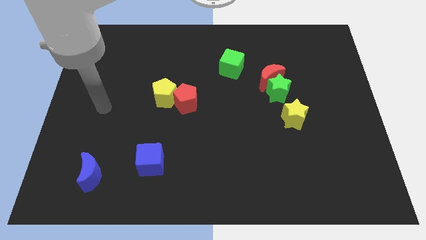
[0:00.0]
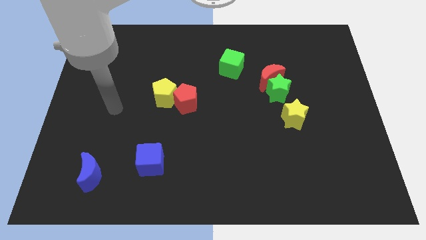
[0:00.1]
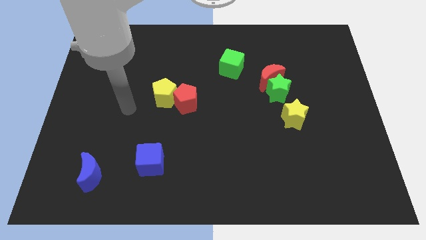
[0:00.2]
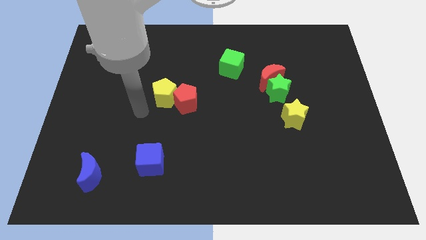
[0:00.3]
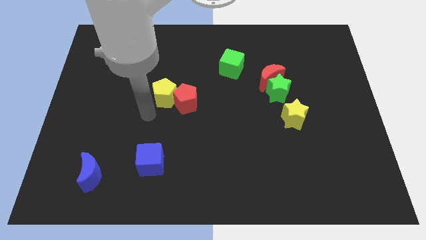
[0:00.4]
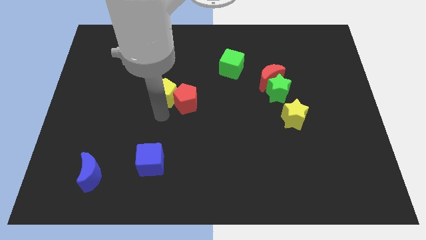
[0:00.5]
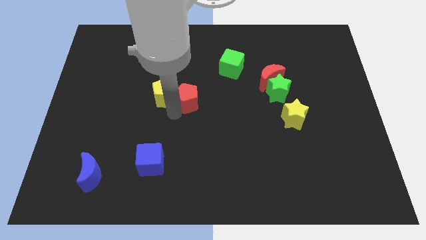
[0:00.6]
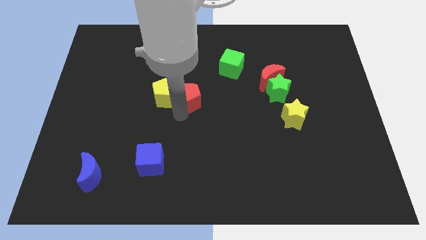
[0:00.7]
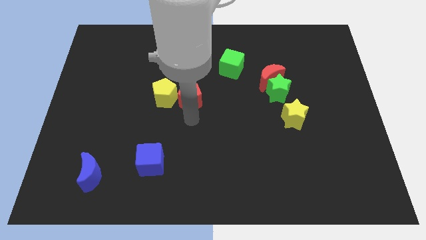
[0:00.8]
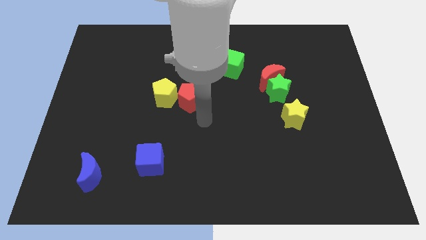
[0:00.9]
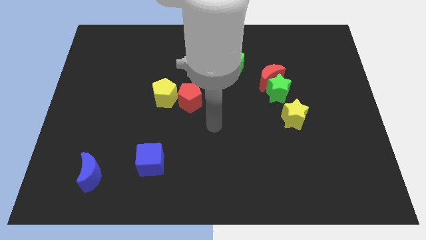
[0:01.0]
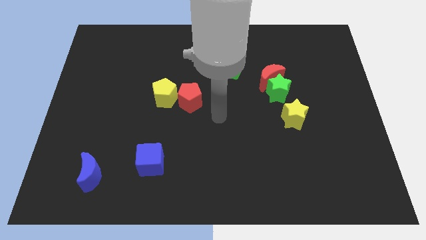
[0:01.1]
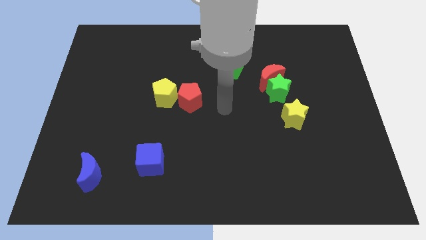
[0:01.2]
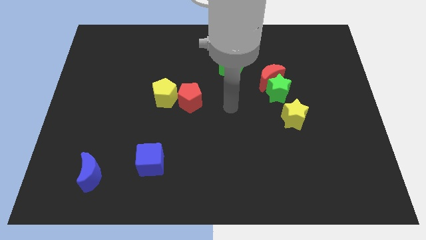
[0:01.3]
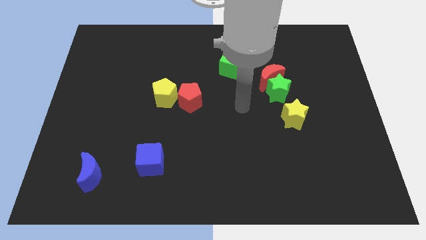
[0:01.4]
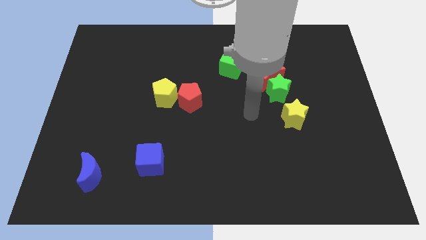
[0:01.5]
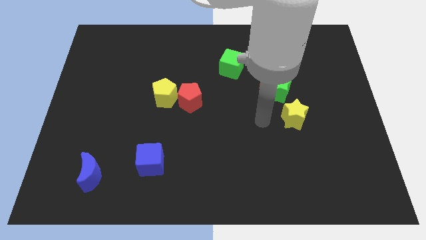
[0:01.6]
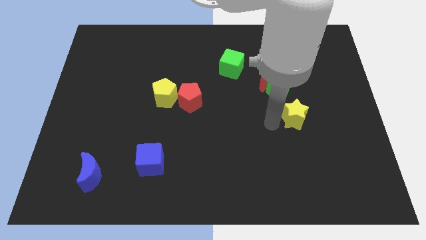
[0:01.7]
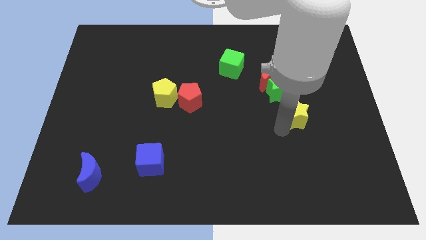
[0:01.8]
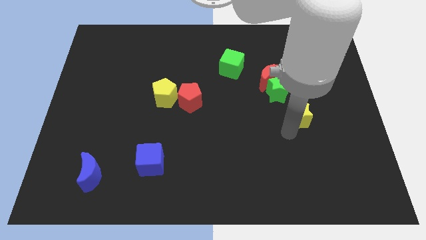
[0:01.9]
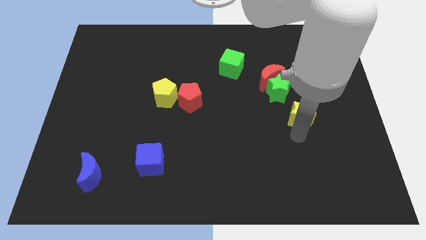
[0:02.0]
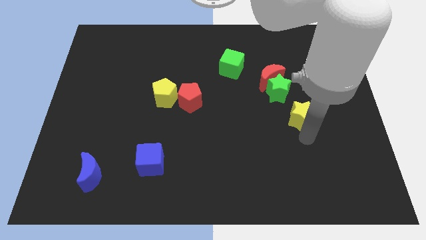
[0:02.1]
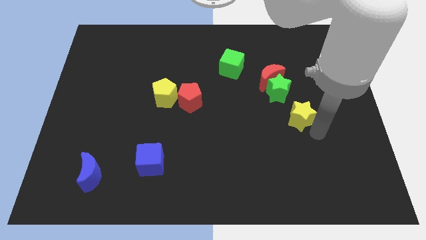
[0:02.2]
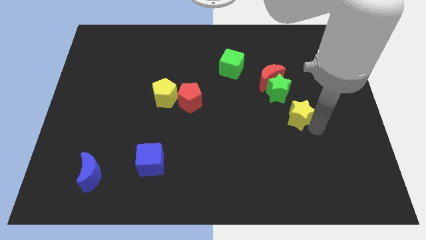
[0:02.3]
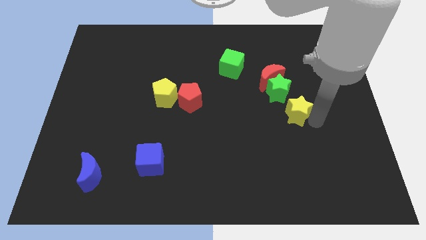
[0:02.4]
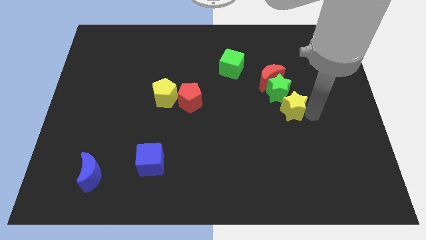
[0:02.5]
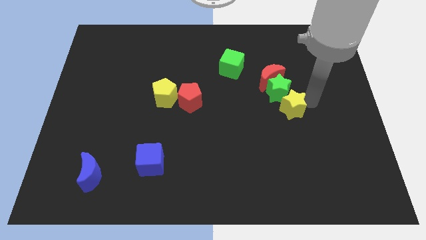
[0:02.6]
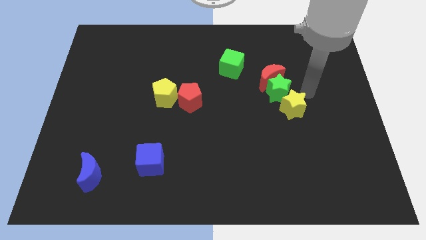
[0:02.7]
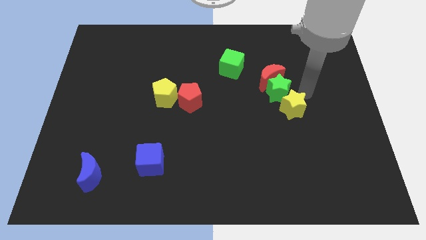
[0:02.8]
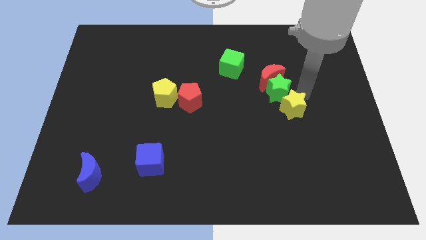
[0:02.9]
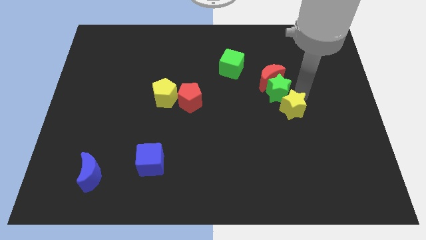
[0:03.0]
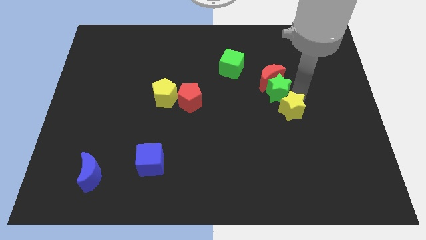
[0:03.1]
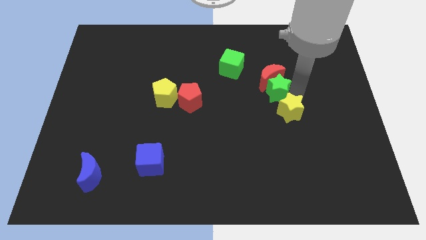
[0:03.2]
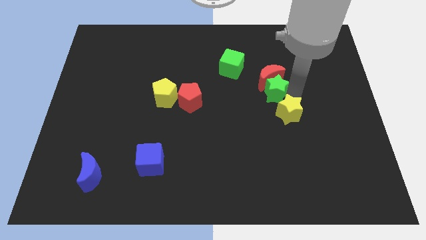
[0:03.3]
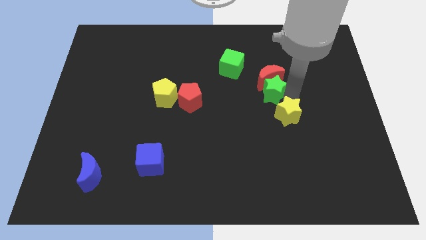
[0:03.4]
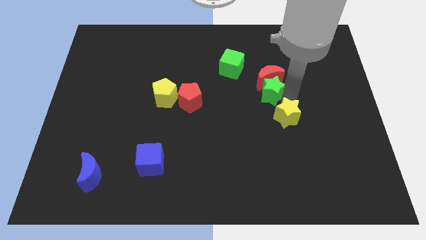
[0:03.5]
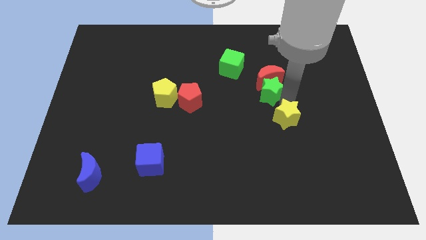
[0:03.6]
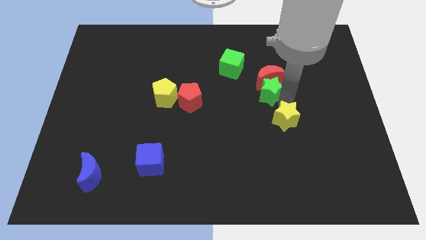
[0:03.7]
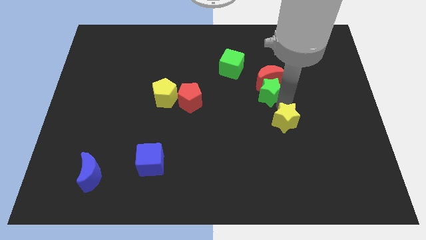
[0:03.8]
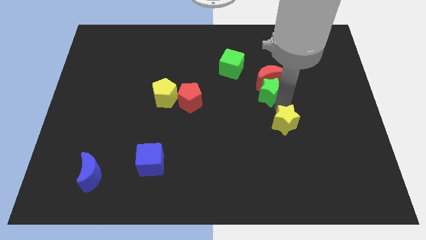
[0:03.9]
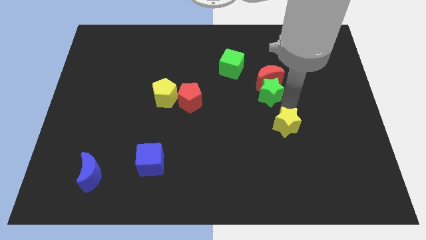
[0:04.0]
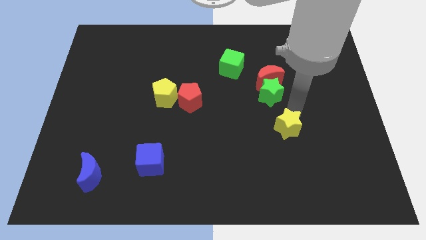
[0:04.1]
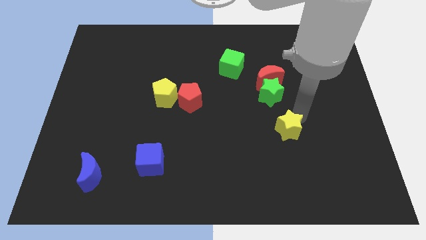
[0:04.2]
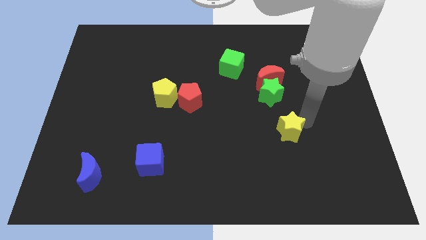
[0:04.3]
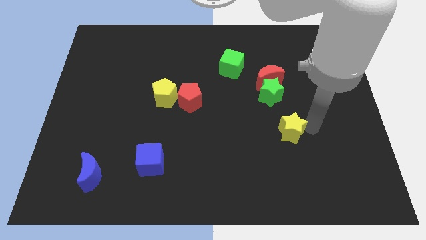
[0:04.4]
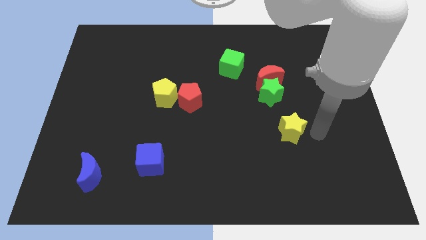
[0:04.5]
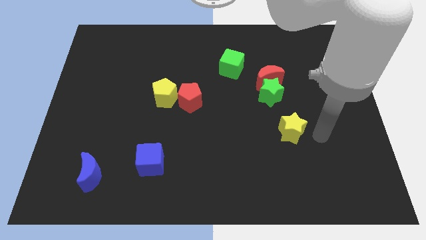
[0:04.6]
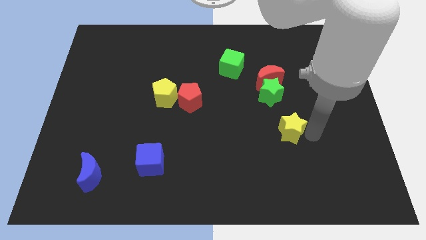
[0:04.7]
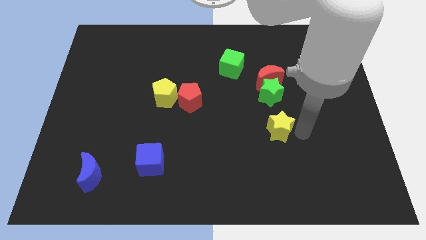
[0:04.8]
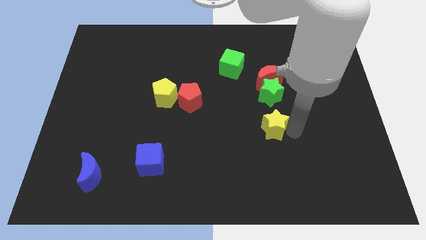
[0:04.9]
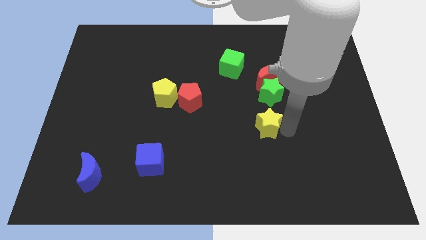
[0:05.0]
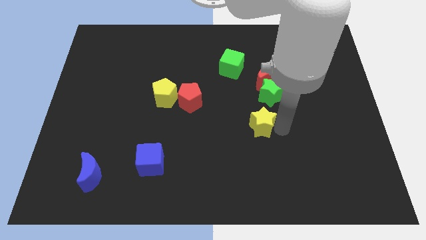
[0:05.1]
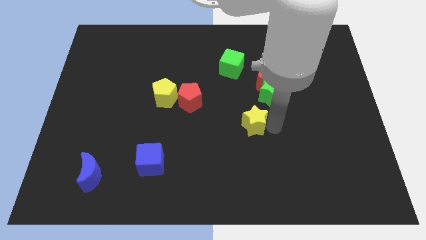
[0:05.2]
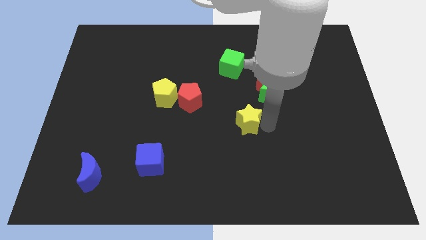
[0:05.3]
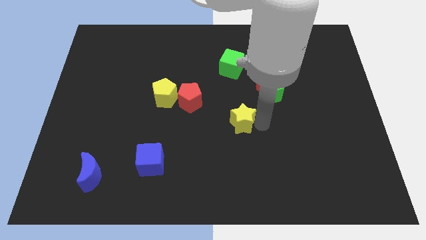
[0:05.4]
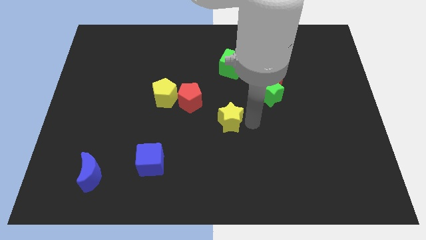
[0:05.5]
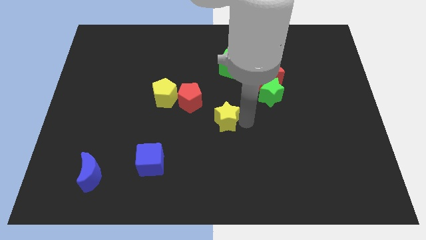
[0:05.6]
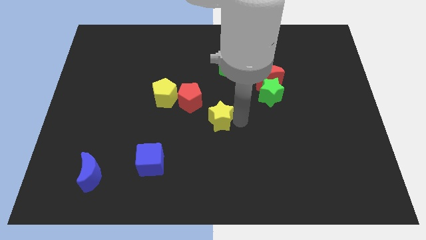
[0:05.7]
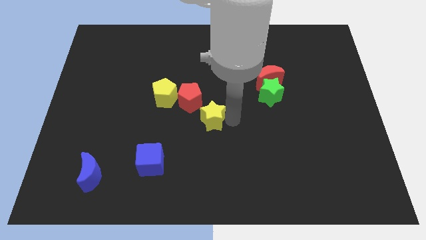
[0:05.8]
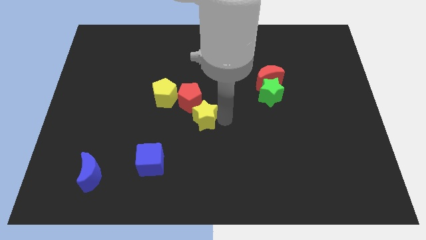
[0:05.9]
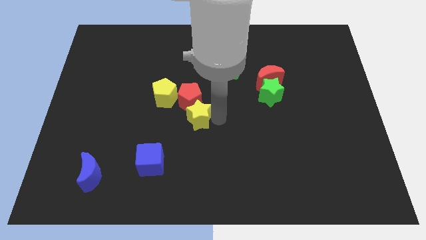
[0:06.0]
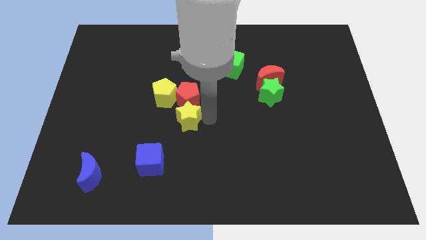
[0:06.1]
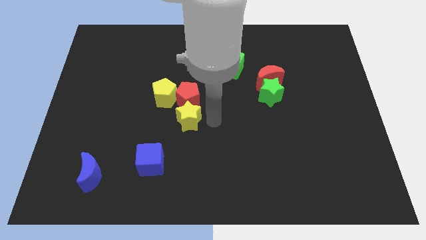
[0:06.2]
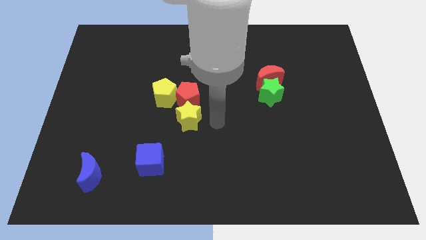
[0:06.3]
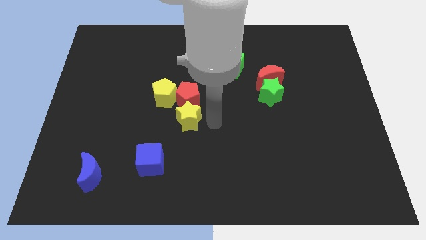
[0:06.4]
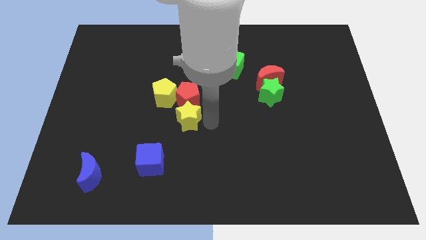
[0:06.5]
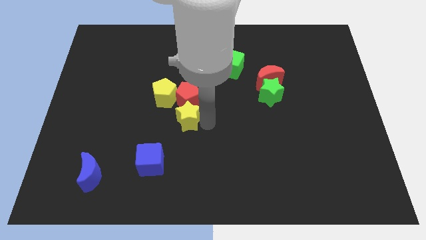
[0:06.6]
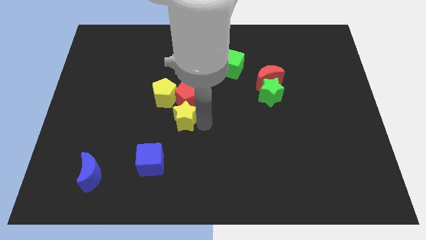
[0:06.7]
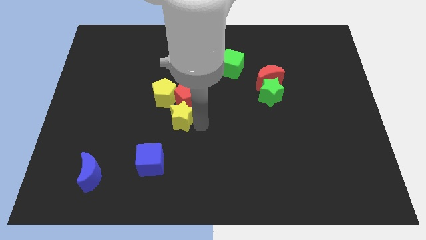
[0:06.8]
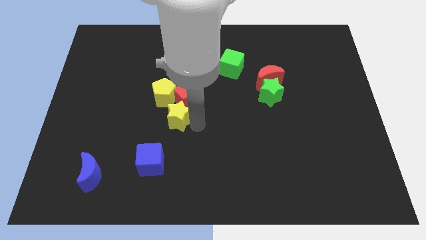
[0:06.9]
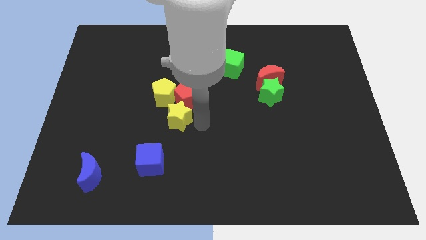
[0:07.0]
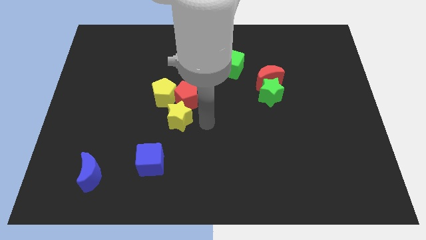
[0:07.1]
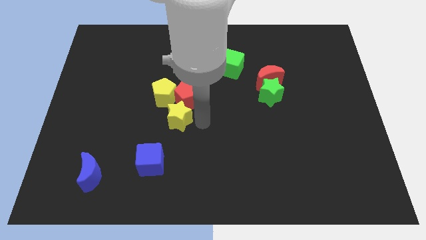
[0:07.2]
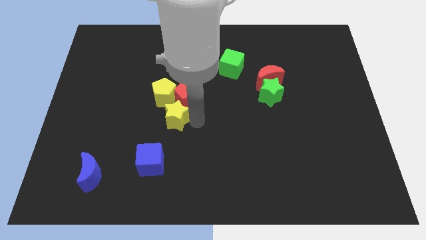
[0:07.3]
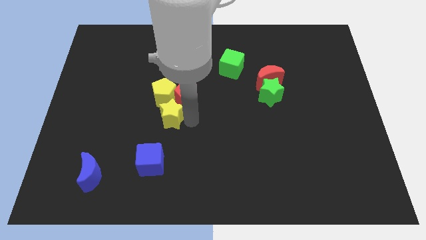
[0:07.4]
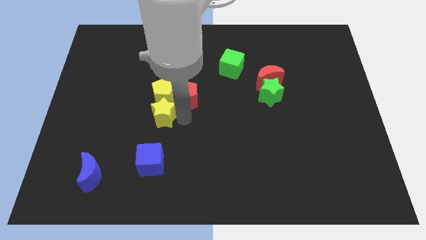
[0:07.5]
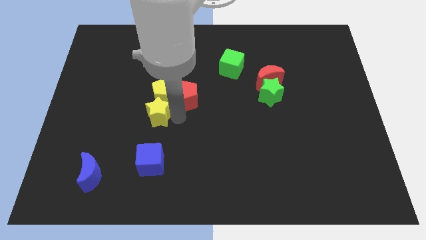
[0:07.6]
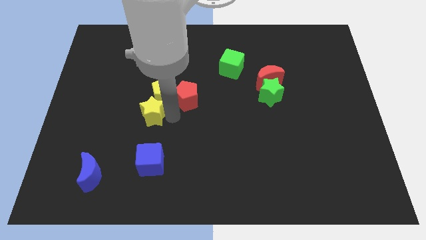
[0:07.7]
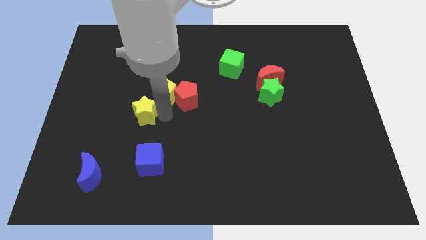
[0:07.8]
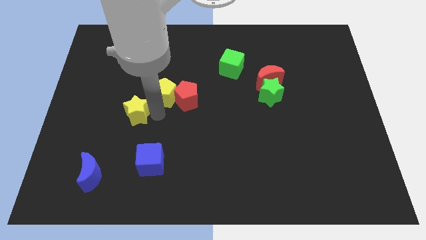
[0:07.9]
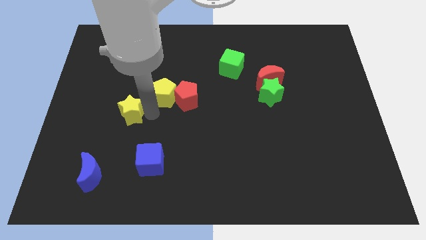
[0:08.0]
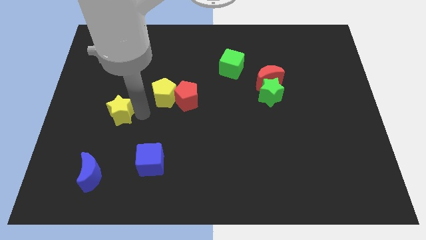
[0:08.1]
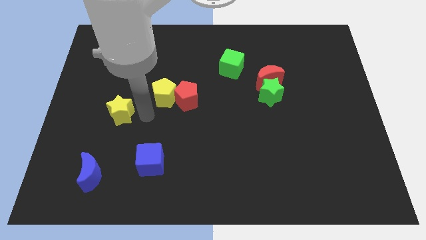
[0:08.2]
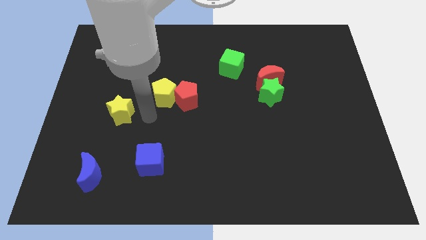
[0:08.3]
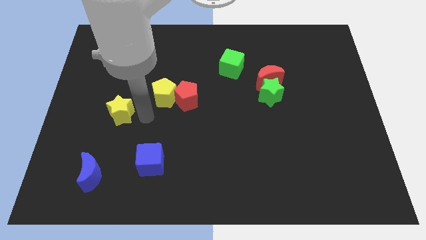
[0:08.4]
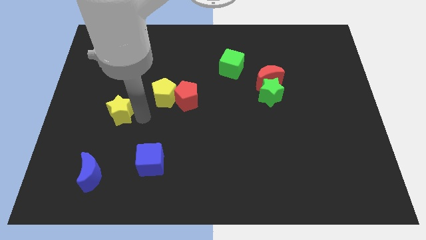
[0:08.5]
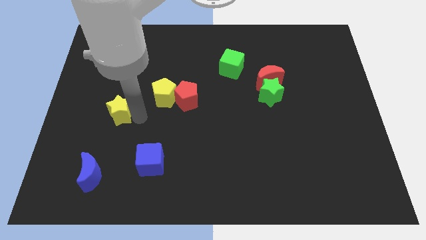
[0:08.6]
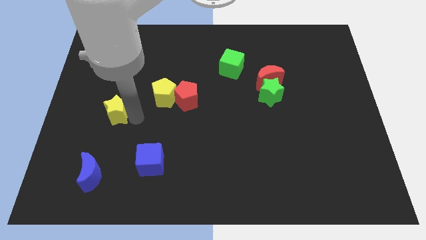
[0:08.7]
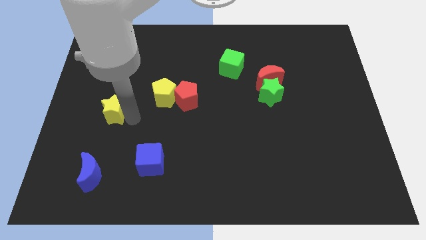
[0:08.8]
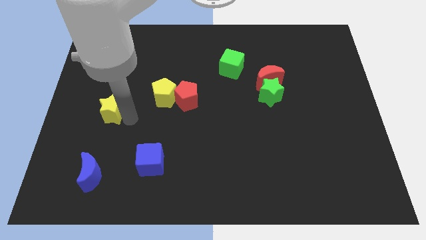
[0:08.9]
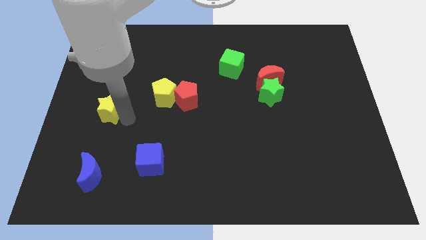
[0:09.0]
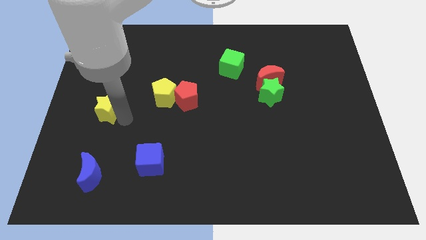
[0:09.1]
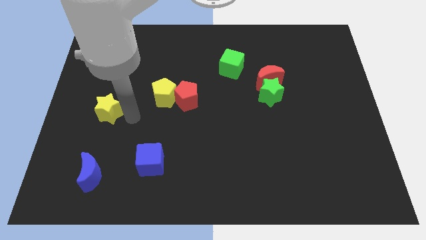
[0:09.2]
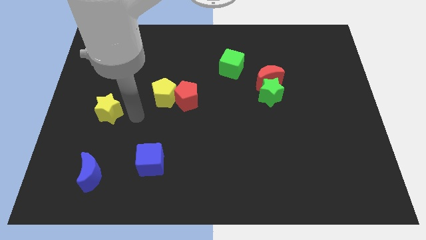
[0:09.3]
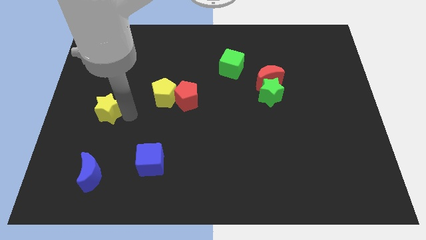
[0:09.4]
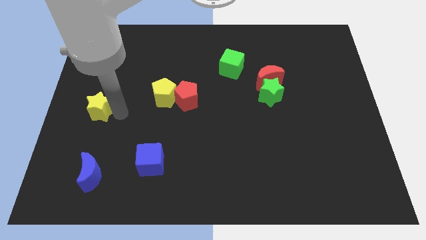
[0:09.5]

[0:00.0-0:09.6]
push the yellow star to the left side of the board
